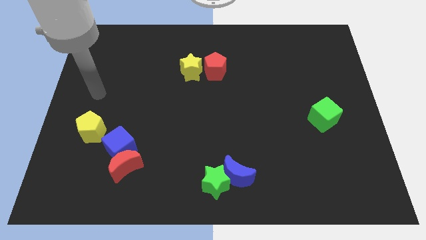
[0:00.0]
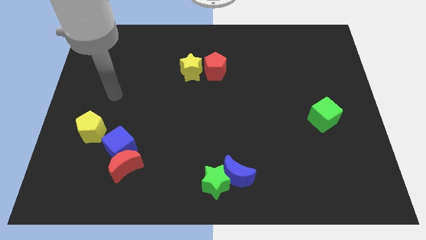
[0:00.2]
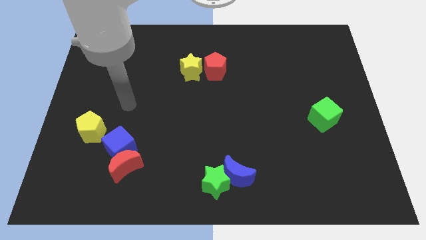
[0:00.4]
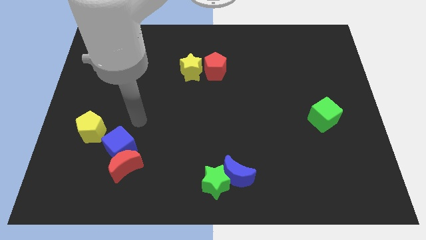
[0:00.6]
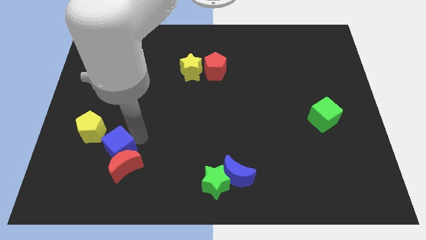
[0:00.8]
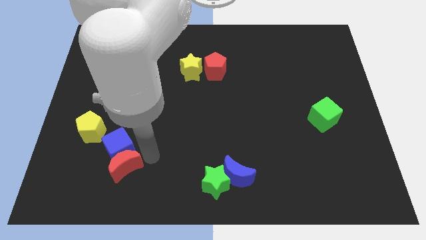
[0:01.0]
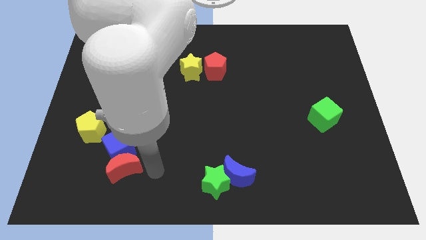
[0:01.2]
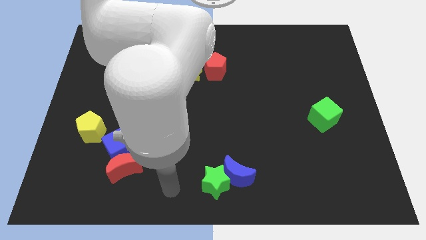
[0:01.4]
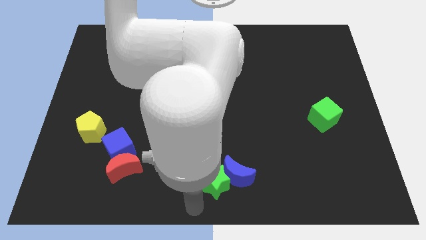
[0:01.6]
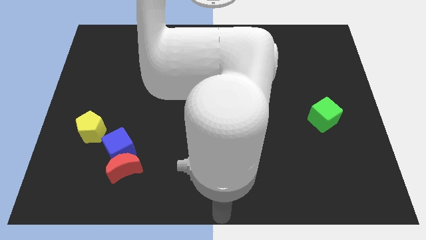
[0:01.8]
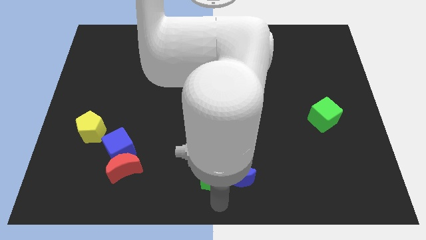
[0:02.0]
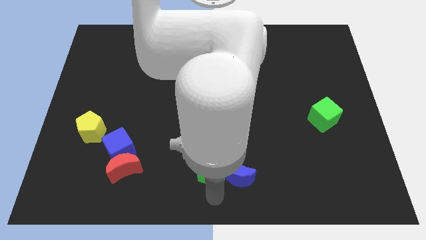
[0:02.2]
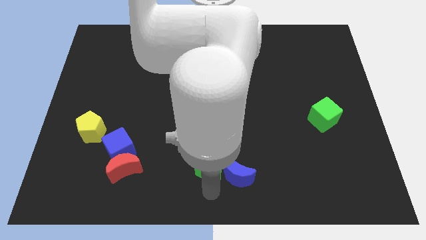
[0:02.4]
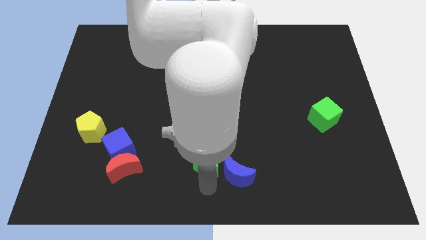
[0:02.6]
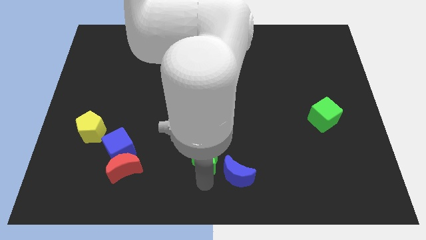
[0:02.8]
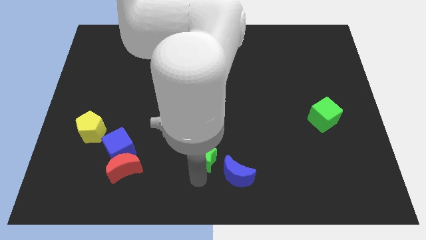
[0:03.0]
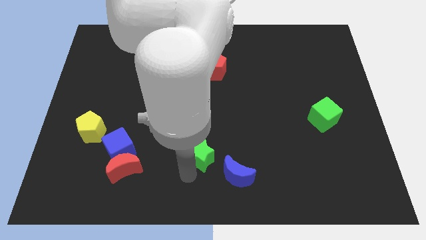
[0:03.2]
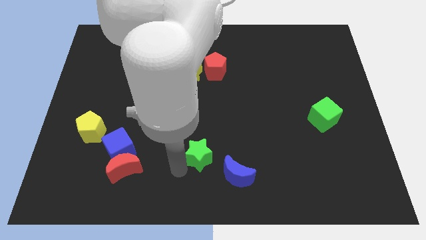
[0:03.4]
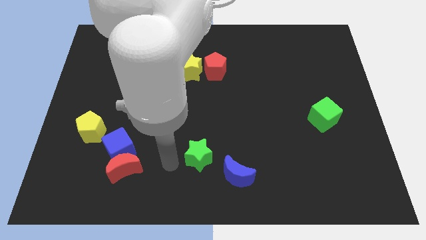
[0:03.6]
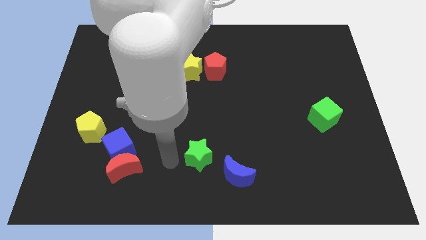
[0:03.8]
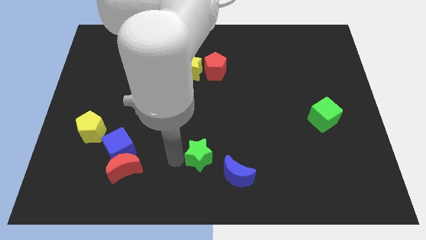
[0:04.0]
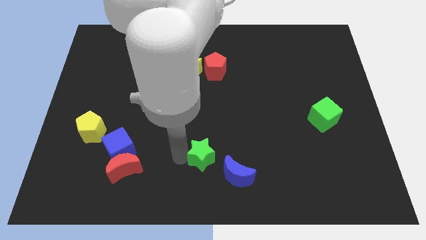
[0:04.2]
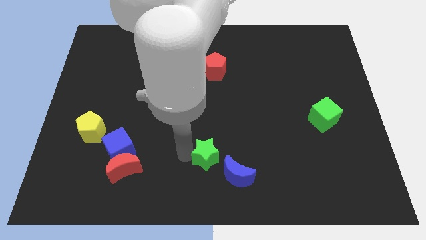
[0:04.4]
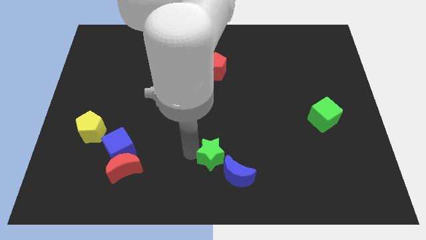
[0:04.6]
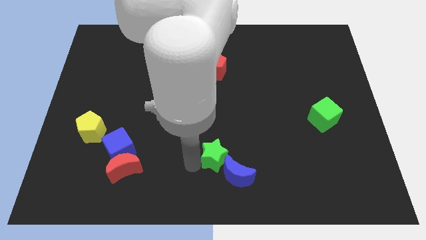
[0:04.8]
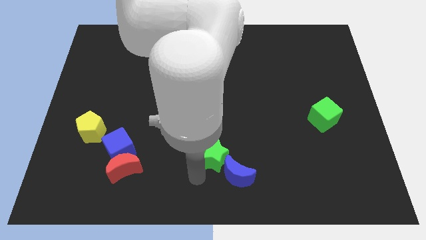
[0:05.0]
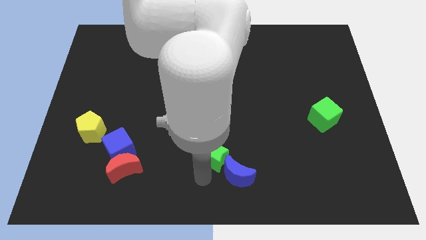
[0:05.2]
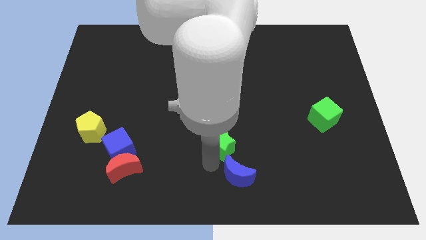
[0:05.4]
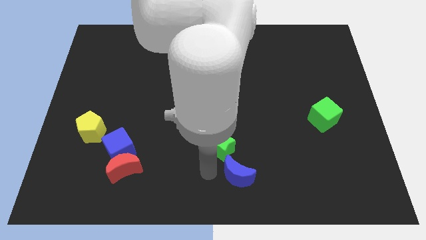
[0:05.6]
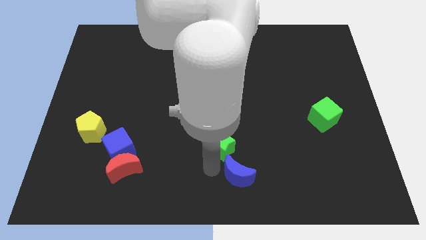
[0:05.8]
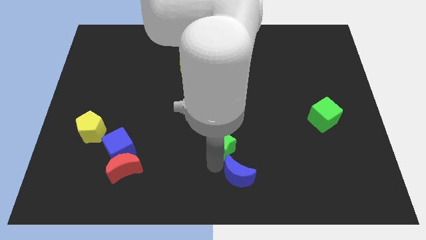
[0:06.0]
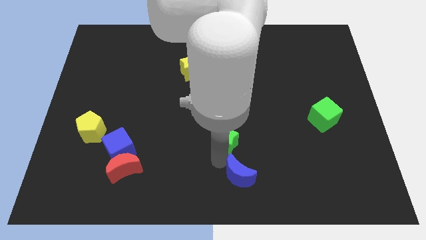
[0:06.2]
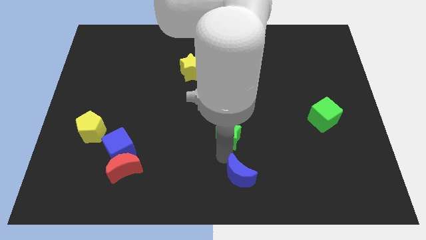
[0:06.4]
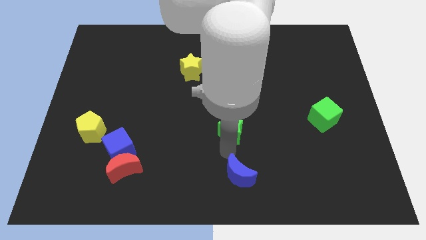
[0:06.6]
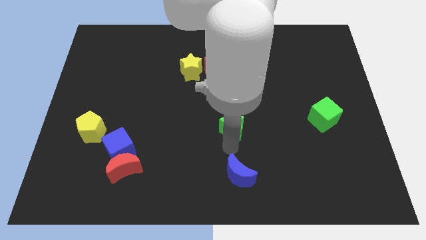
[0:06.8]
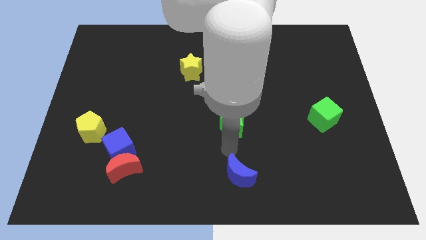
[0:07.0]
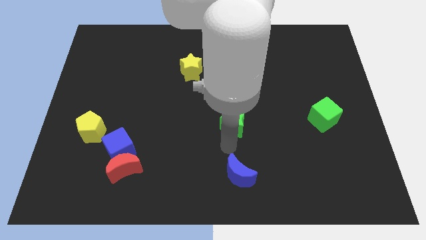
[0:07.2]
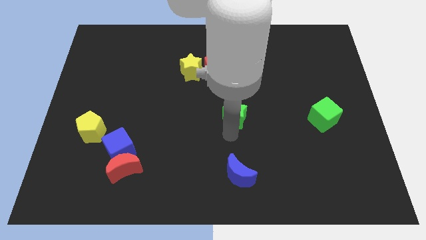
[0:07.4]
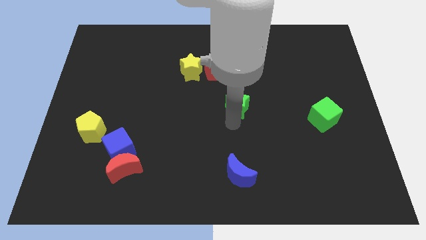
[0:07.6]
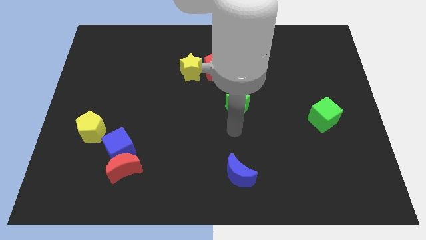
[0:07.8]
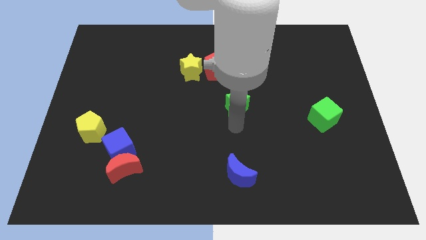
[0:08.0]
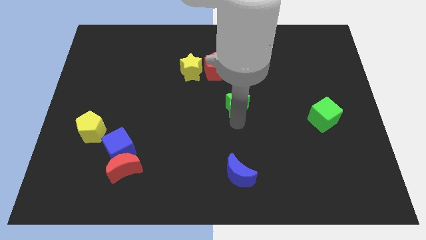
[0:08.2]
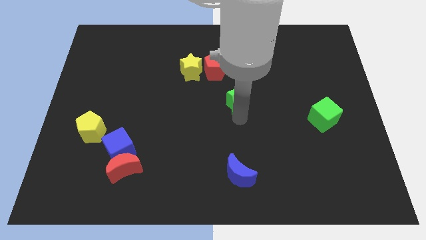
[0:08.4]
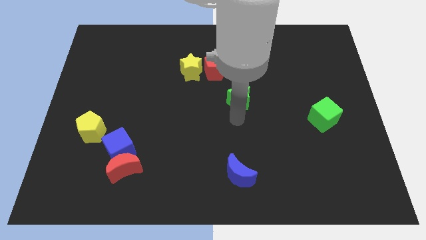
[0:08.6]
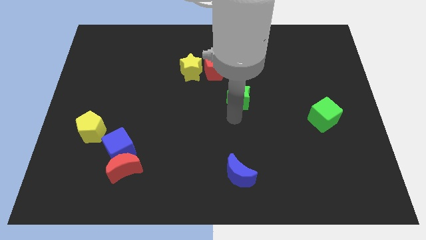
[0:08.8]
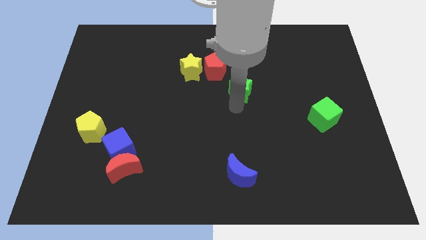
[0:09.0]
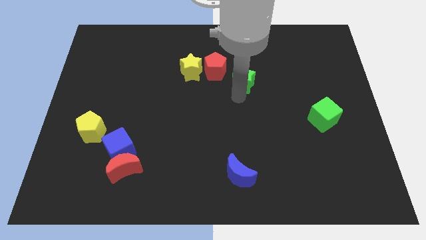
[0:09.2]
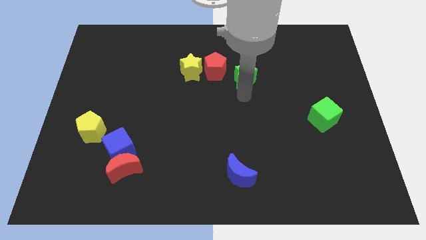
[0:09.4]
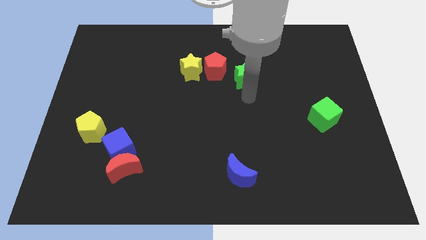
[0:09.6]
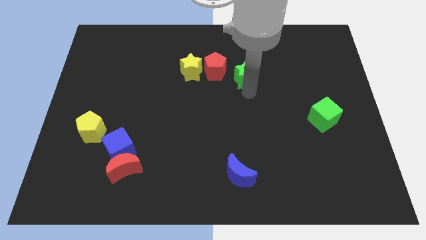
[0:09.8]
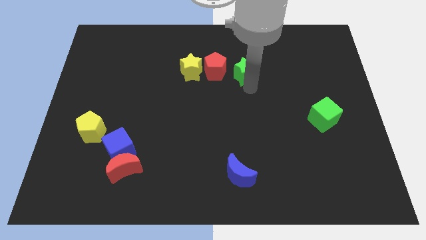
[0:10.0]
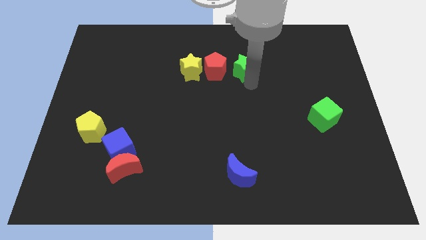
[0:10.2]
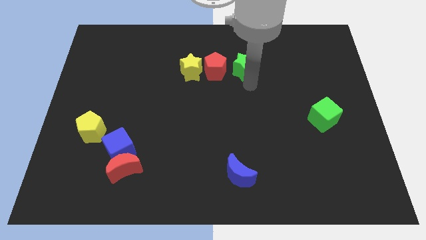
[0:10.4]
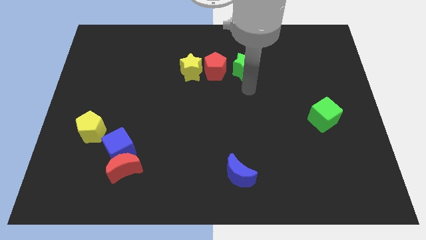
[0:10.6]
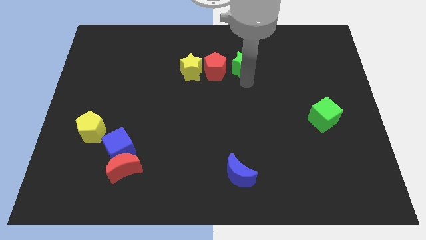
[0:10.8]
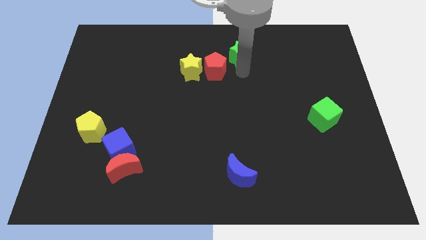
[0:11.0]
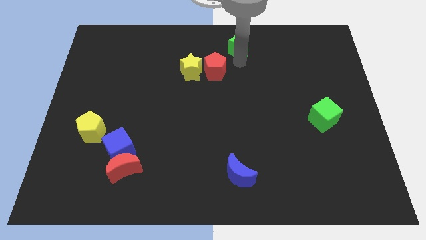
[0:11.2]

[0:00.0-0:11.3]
slide the green star to the top side
